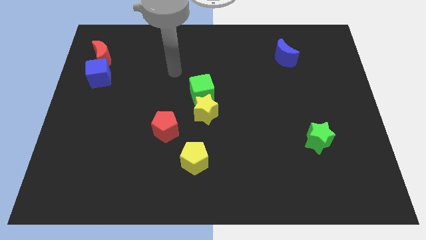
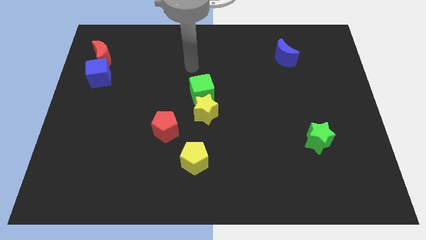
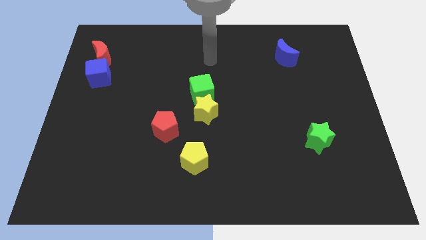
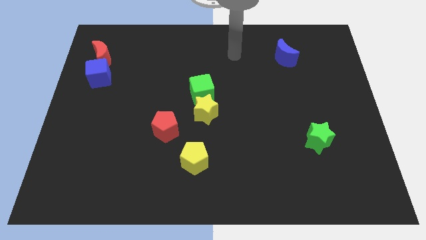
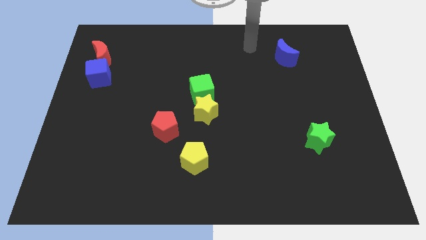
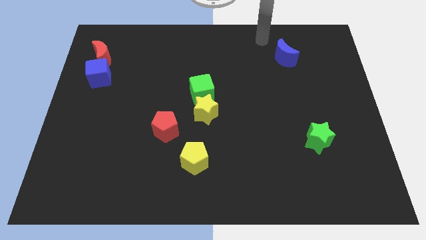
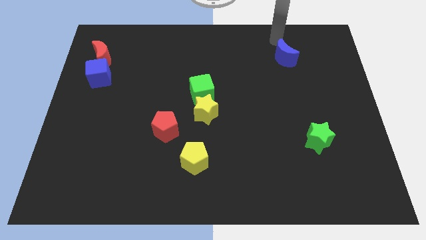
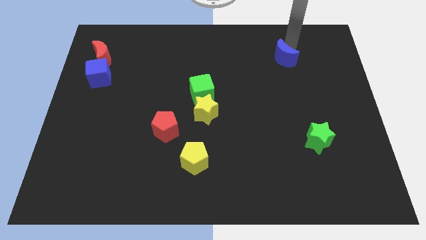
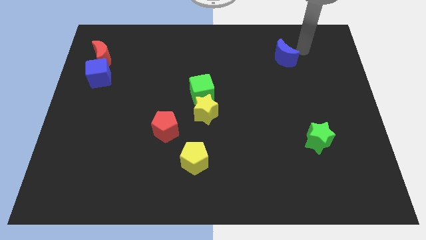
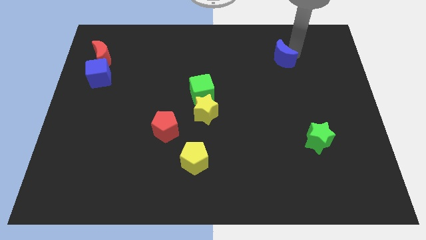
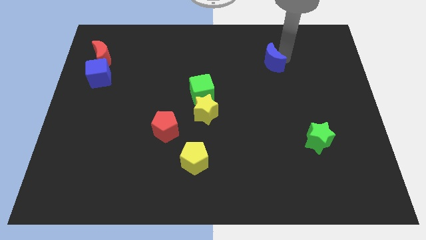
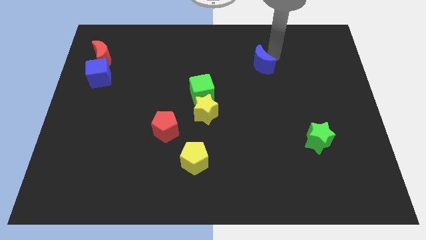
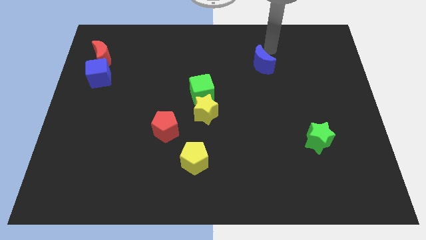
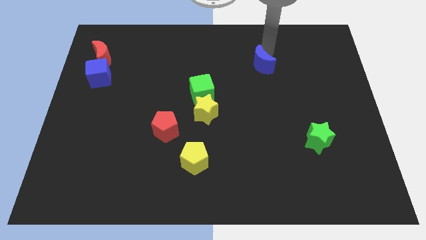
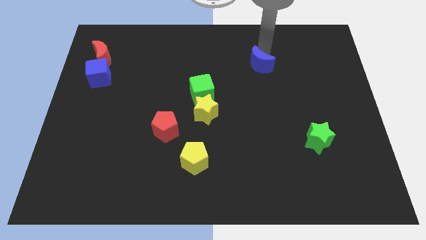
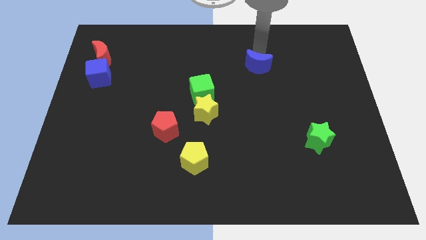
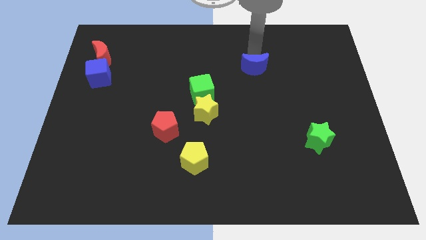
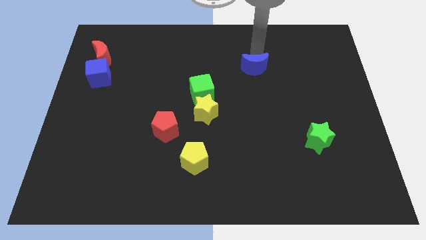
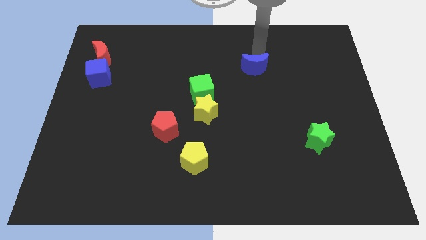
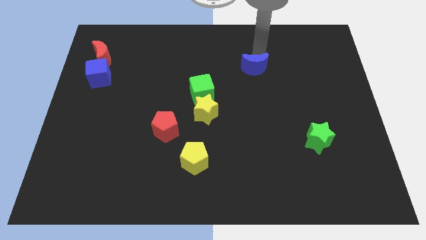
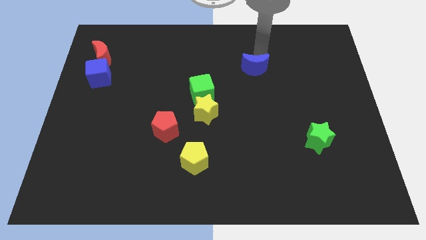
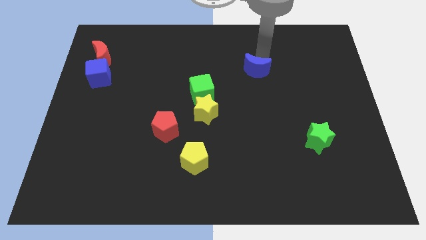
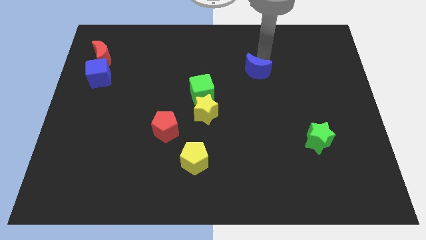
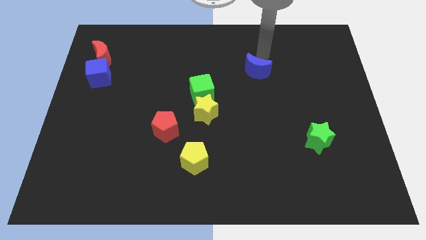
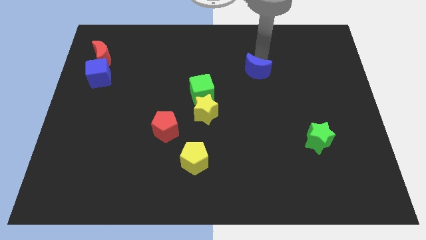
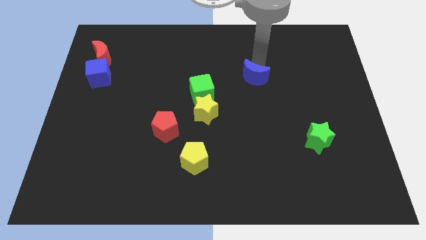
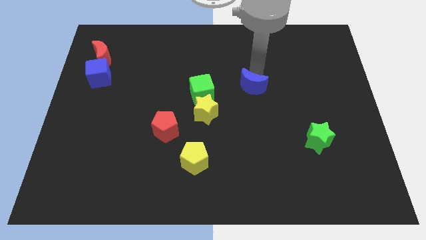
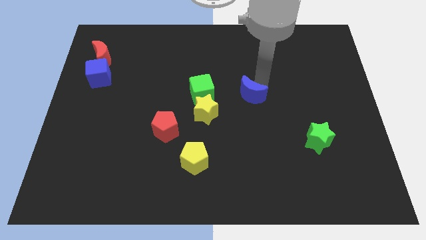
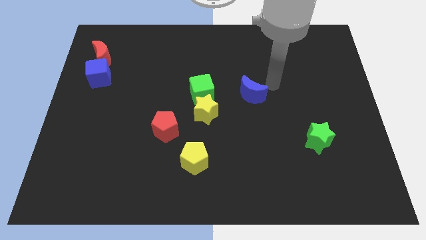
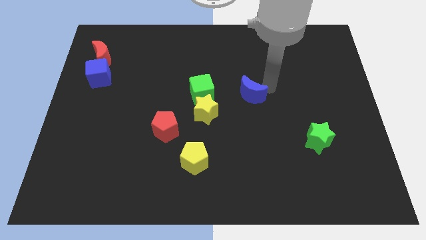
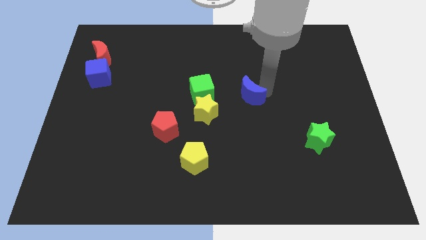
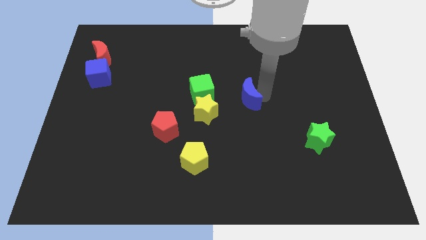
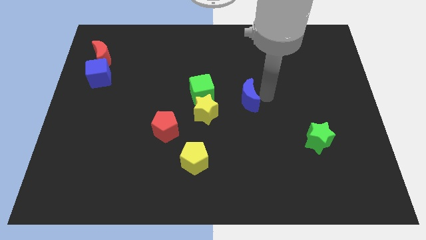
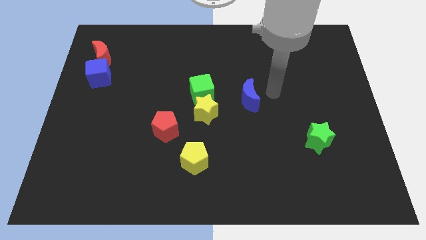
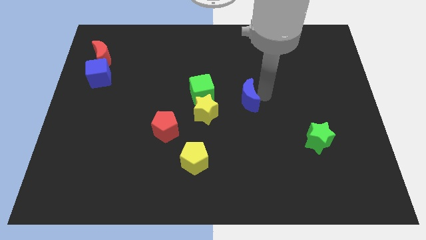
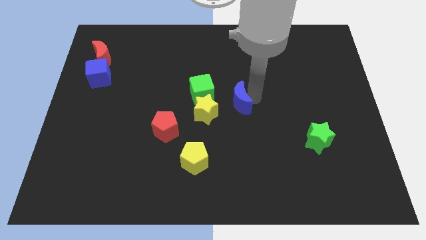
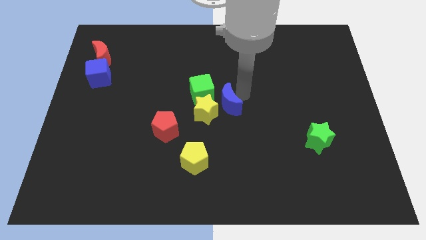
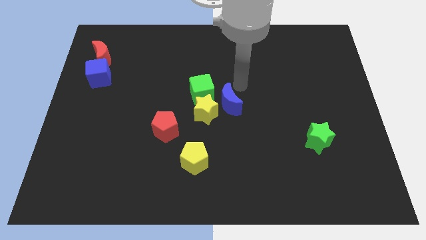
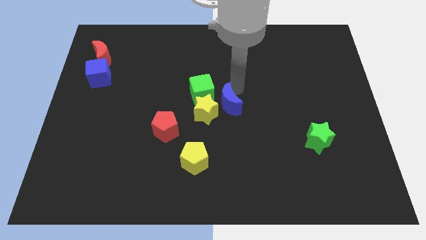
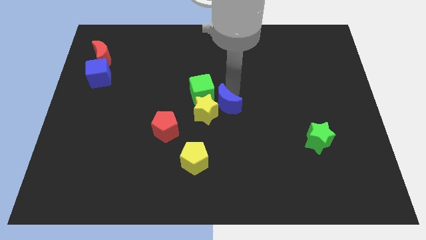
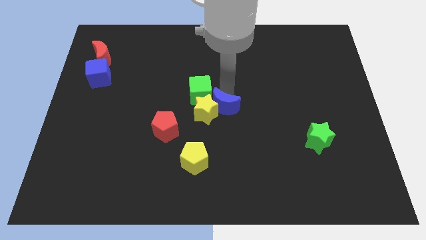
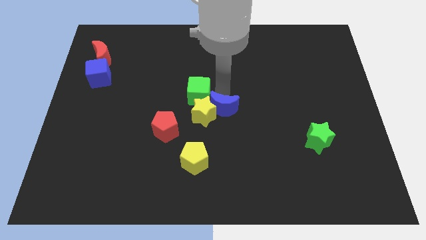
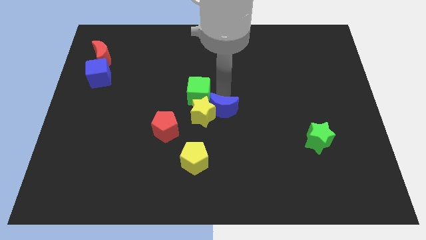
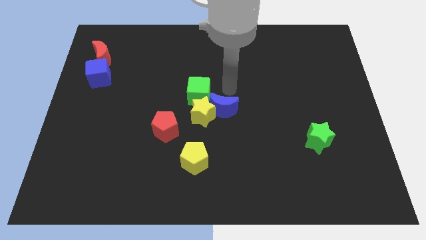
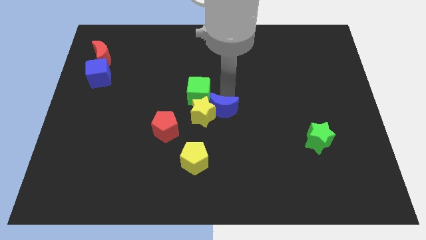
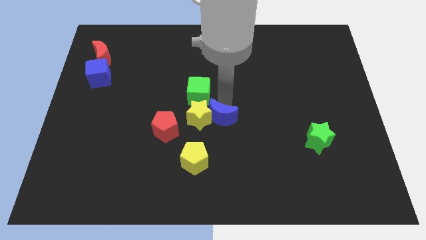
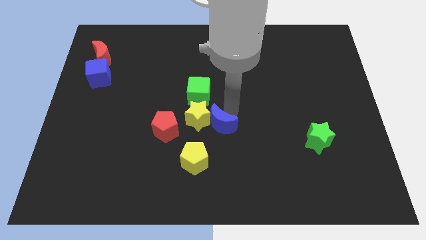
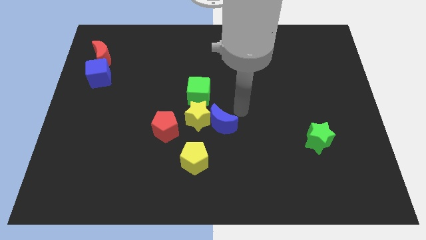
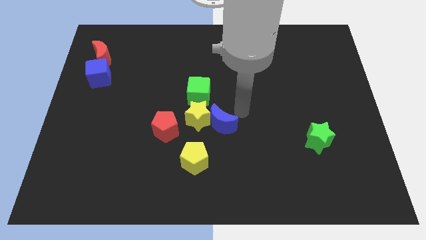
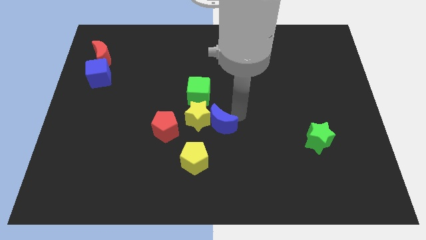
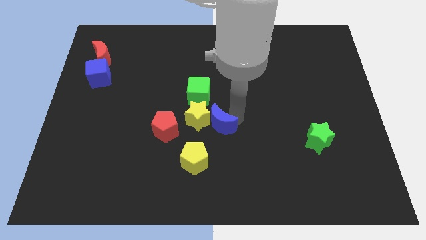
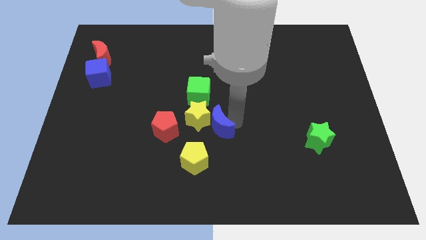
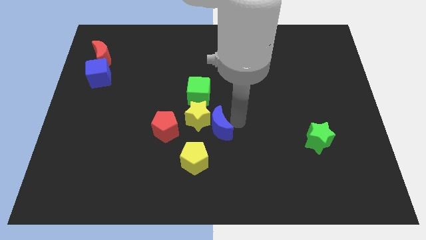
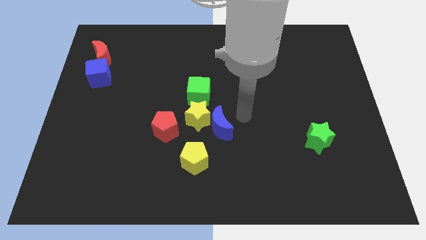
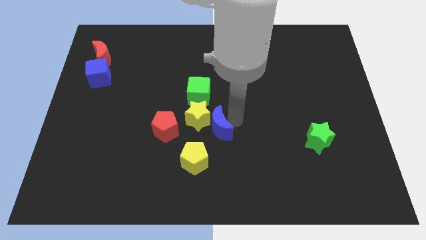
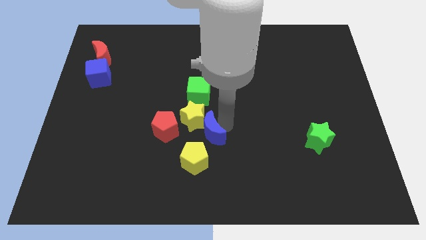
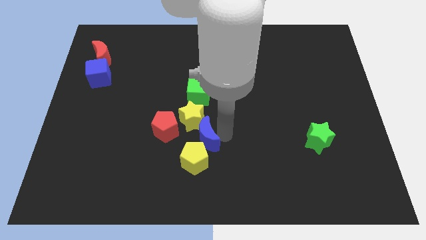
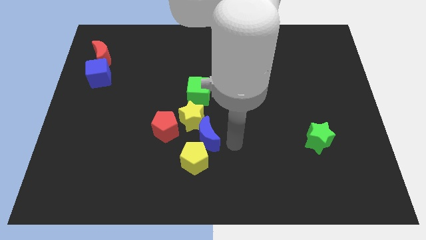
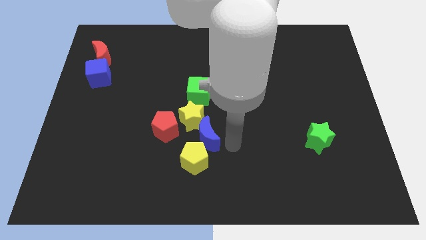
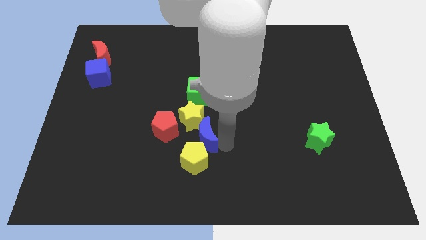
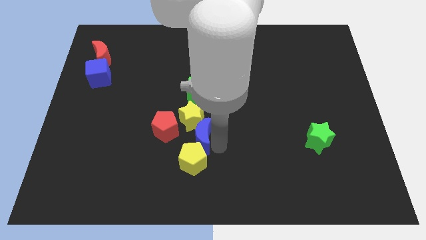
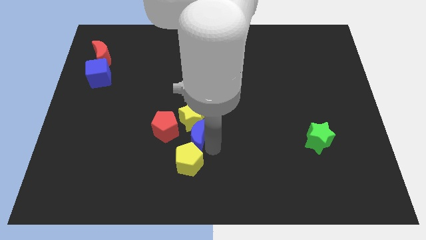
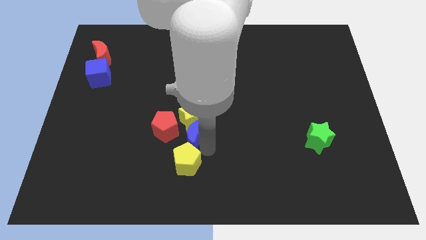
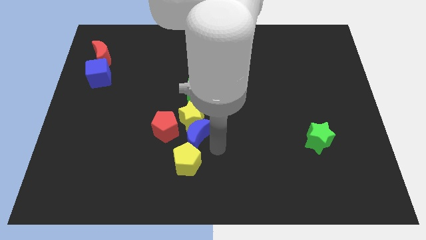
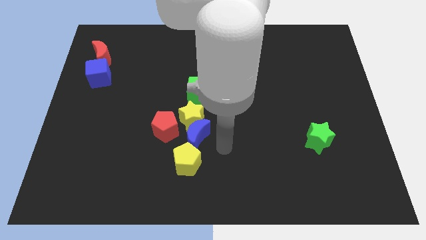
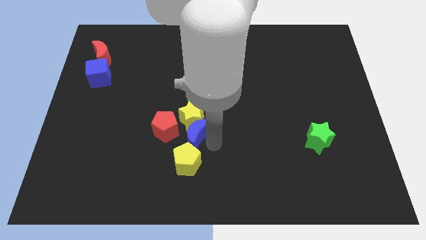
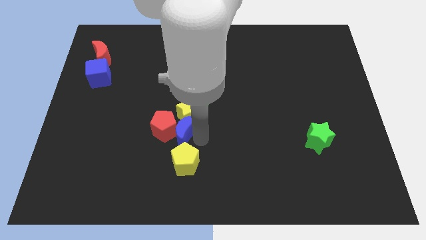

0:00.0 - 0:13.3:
move the blue moon next to the red pentagon
